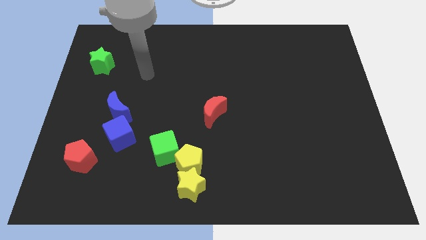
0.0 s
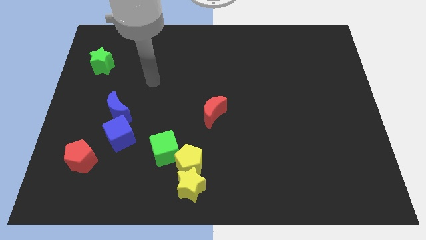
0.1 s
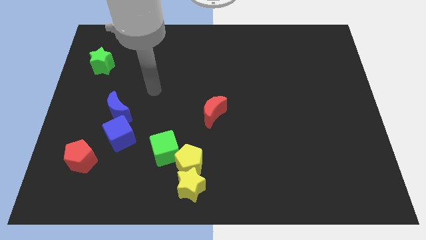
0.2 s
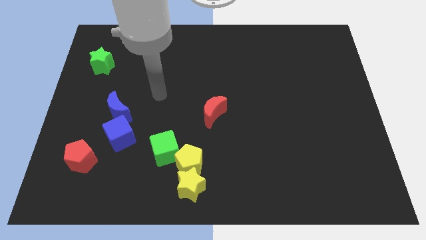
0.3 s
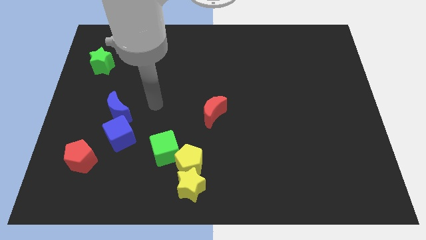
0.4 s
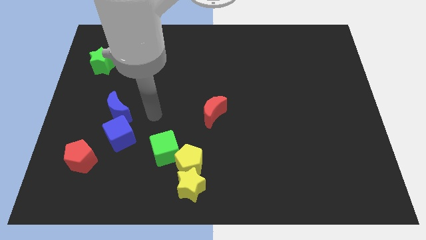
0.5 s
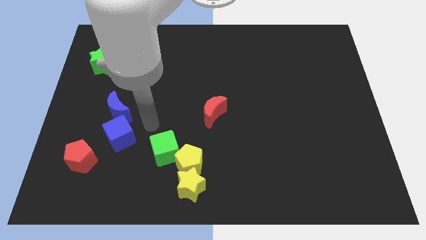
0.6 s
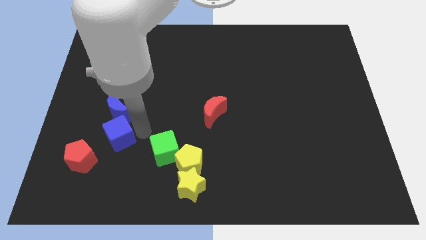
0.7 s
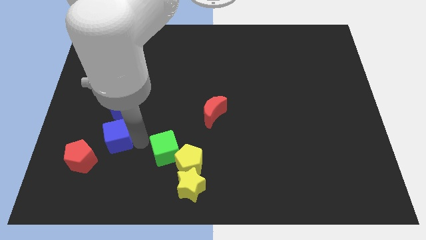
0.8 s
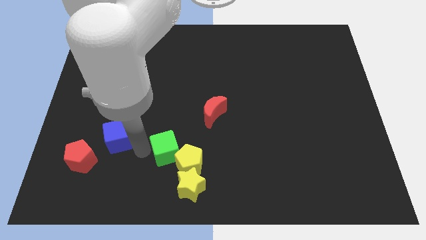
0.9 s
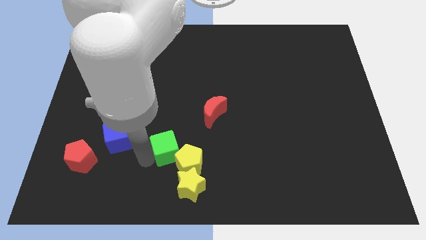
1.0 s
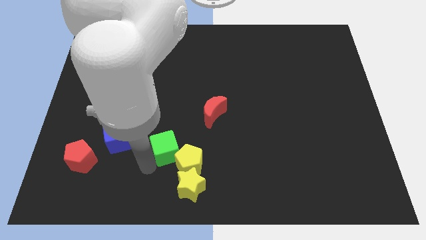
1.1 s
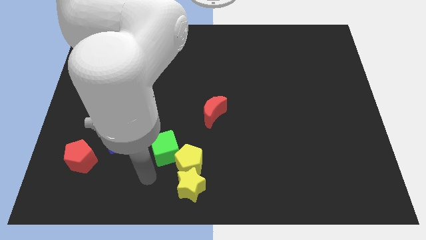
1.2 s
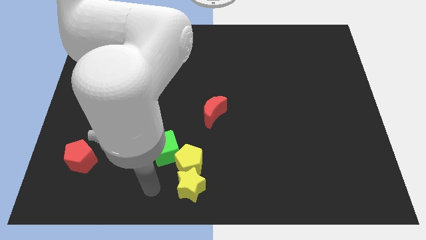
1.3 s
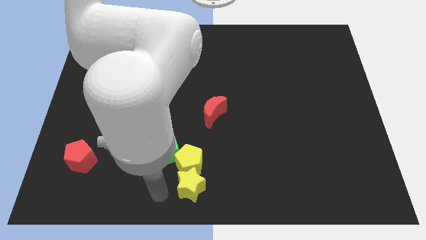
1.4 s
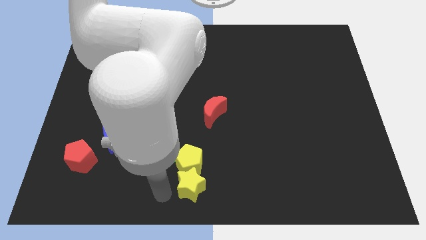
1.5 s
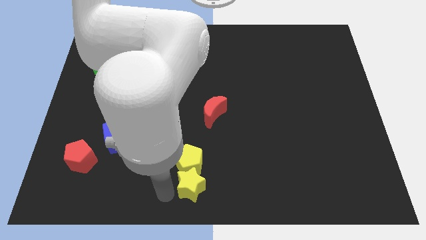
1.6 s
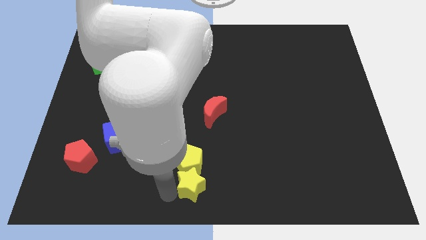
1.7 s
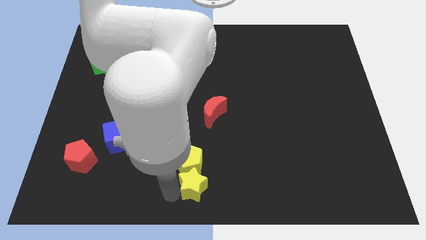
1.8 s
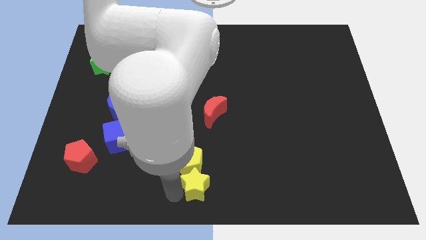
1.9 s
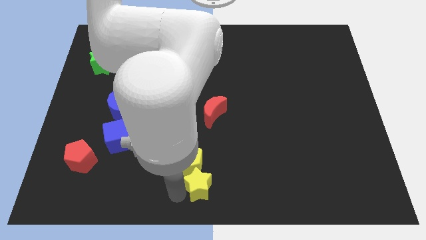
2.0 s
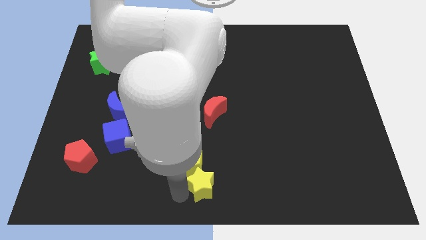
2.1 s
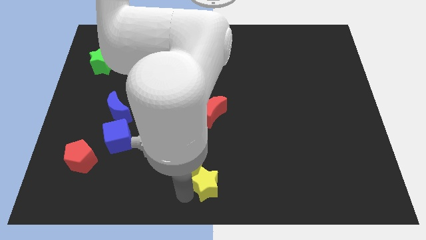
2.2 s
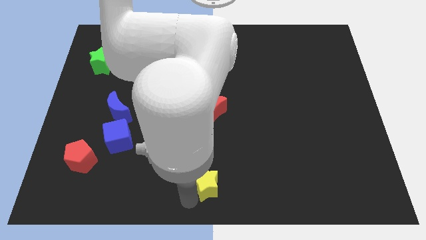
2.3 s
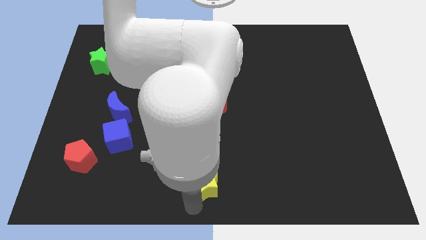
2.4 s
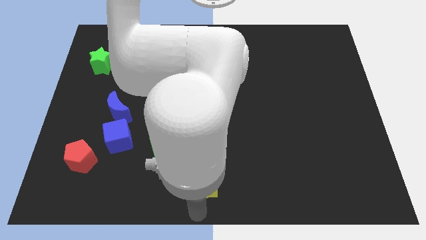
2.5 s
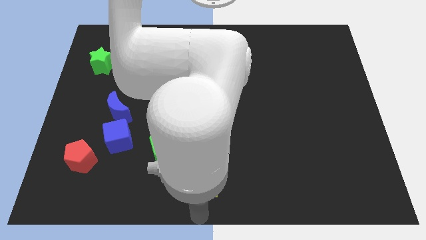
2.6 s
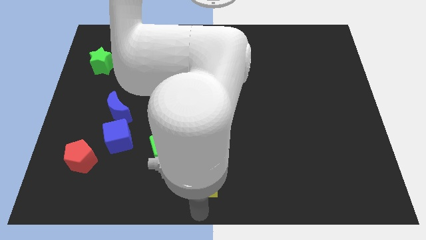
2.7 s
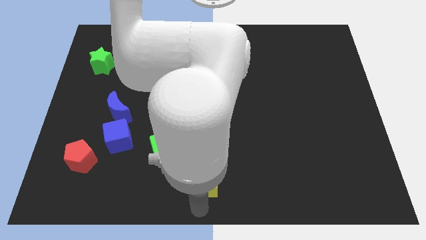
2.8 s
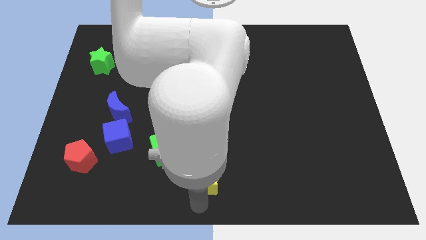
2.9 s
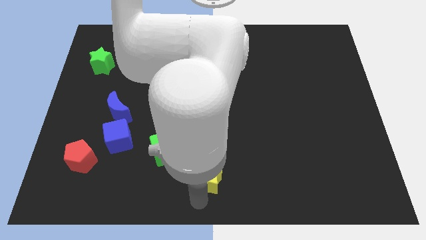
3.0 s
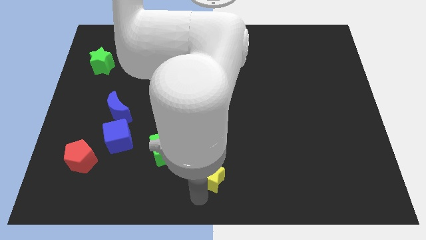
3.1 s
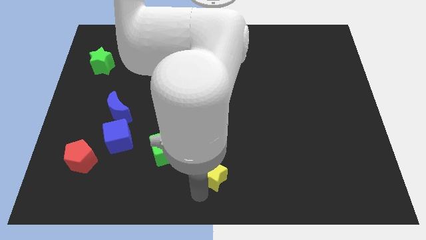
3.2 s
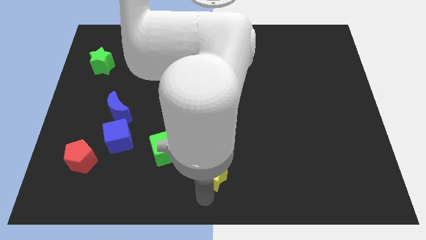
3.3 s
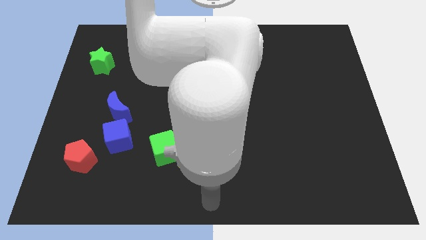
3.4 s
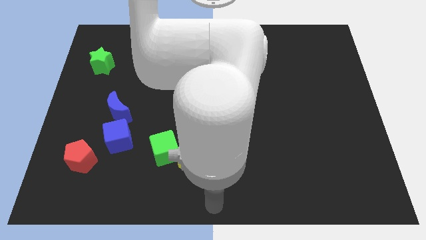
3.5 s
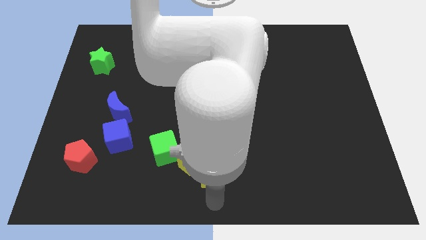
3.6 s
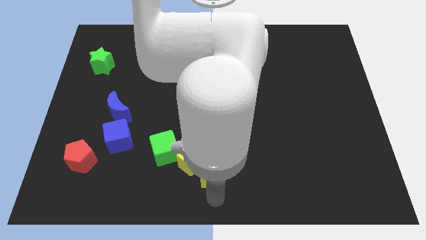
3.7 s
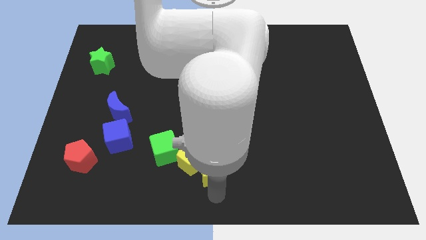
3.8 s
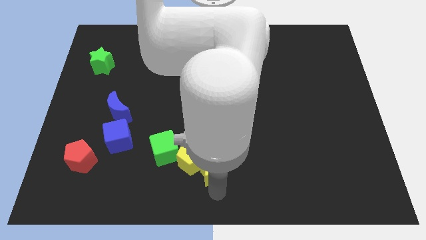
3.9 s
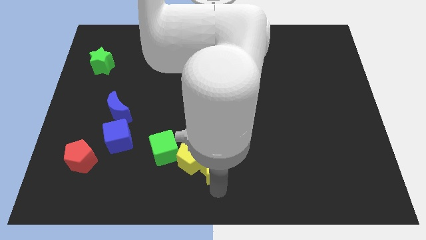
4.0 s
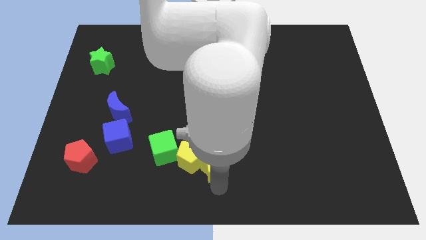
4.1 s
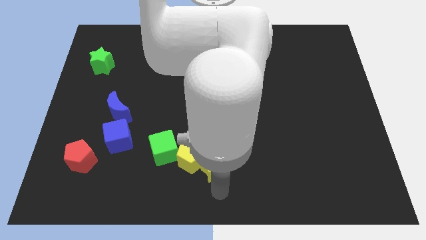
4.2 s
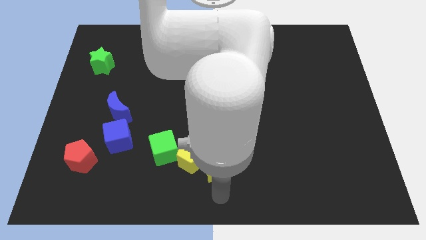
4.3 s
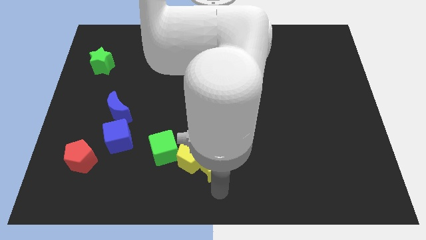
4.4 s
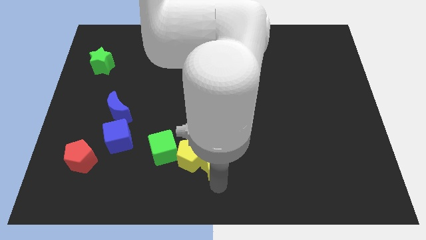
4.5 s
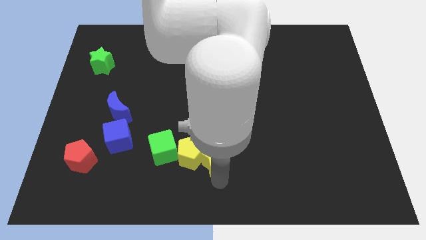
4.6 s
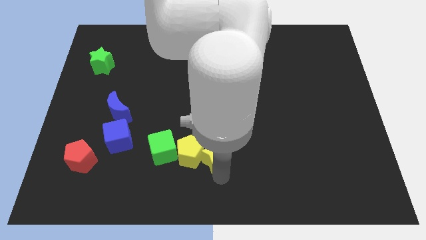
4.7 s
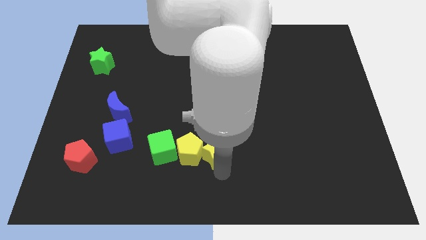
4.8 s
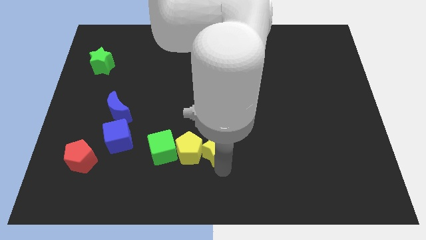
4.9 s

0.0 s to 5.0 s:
slide the yellow star upwards a little

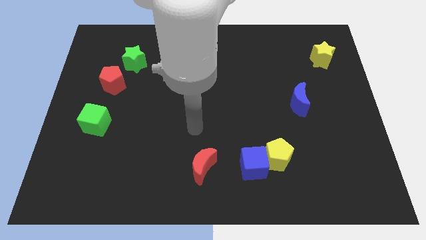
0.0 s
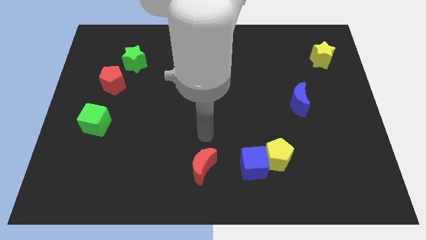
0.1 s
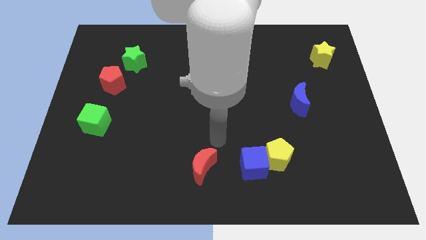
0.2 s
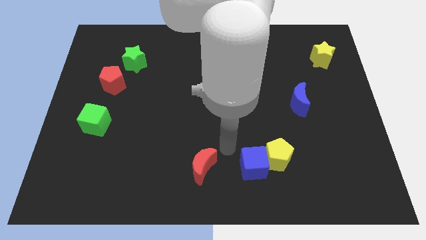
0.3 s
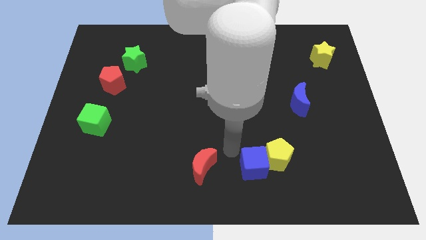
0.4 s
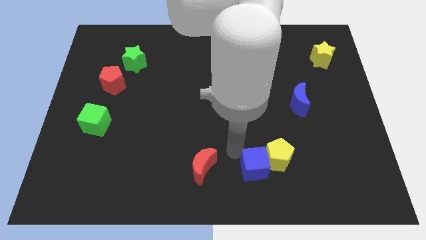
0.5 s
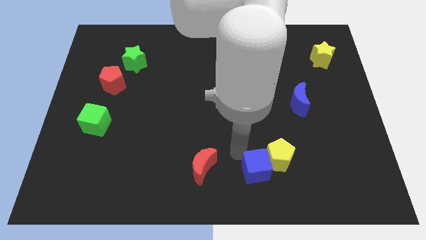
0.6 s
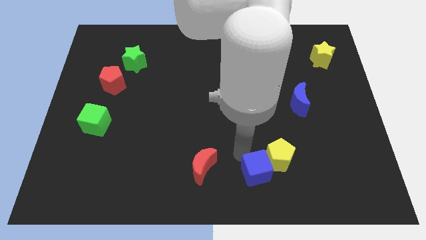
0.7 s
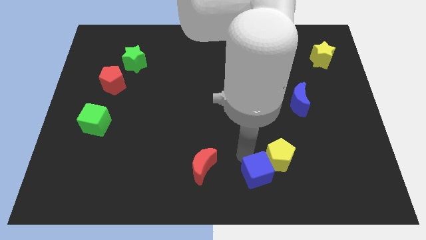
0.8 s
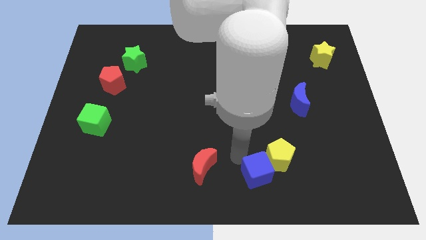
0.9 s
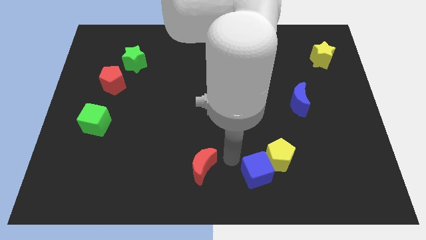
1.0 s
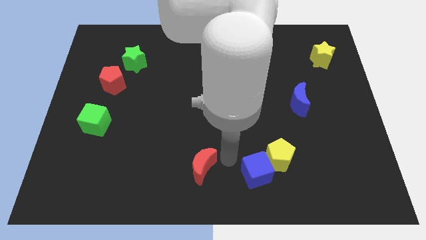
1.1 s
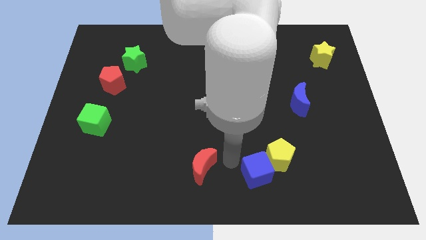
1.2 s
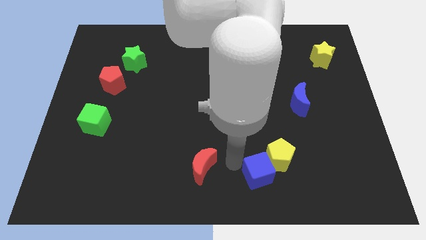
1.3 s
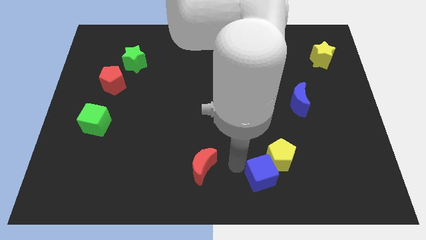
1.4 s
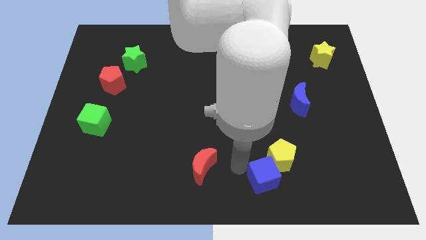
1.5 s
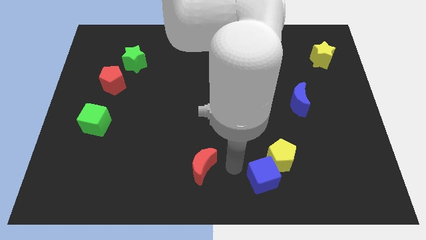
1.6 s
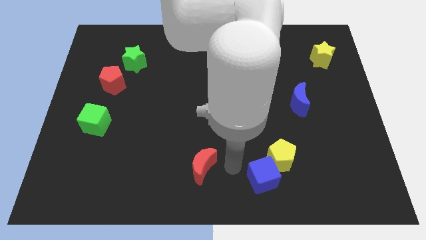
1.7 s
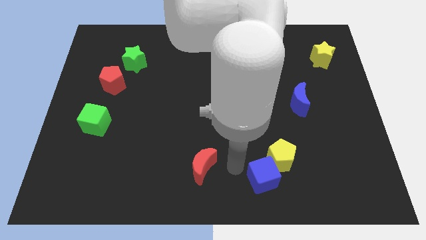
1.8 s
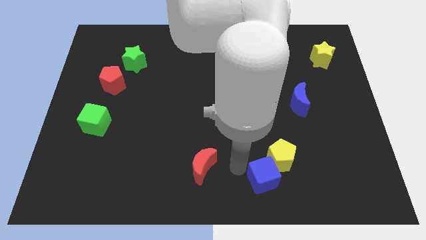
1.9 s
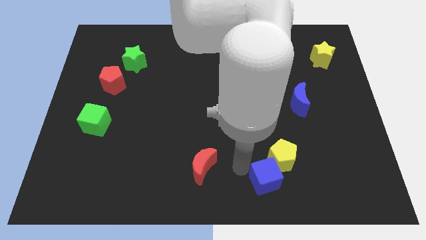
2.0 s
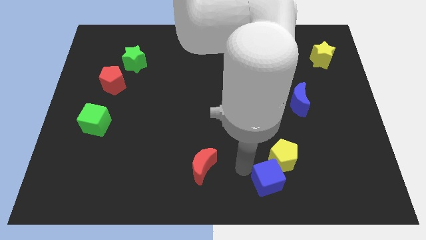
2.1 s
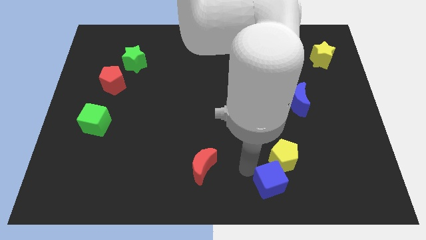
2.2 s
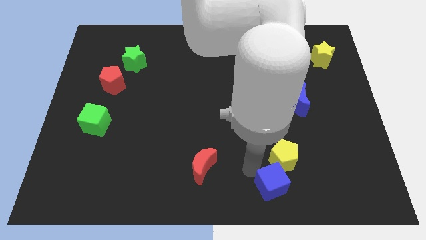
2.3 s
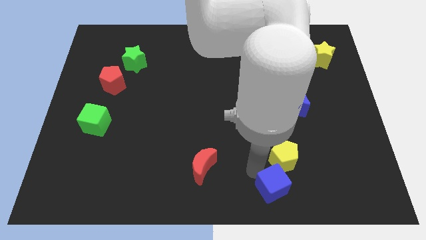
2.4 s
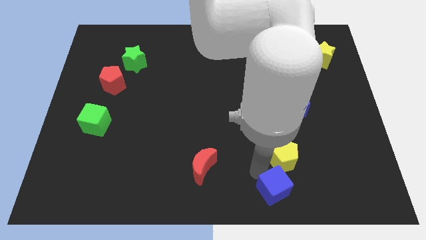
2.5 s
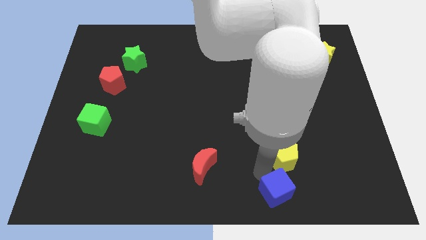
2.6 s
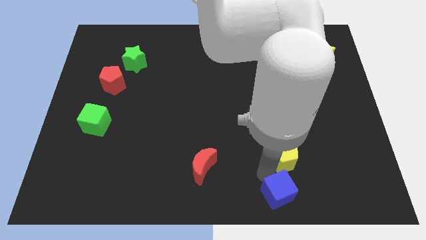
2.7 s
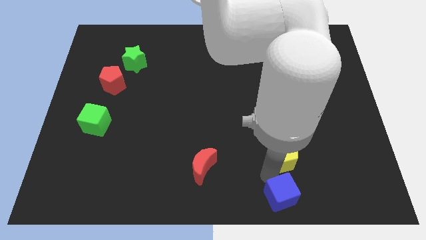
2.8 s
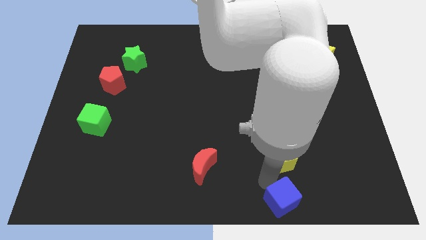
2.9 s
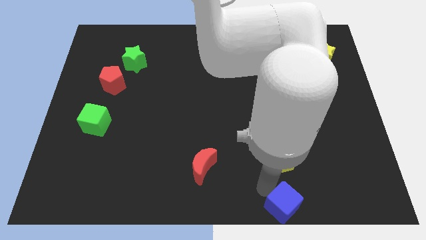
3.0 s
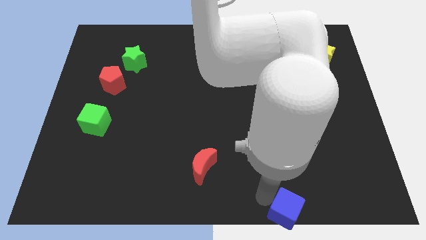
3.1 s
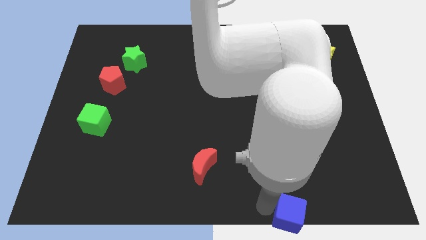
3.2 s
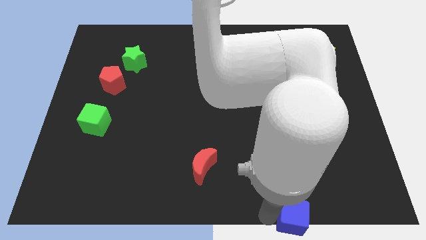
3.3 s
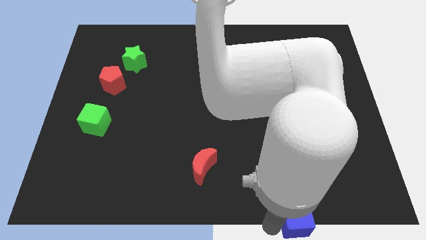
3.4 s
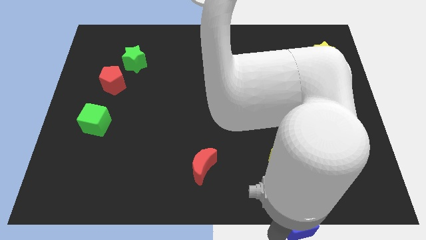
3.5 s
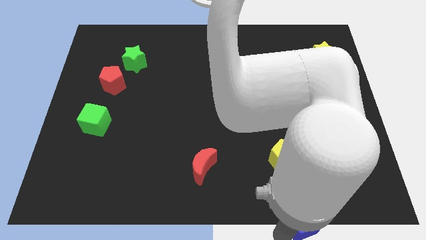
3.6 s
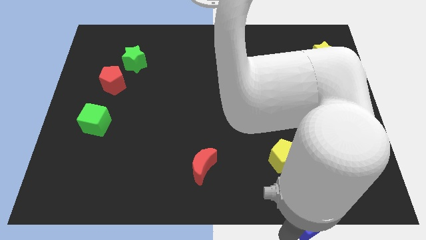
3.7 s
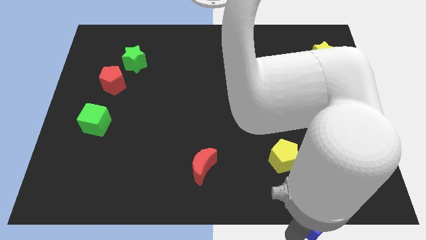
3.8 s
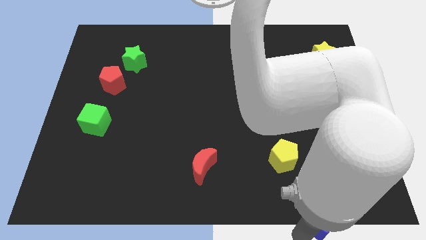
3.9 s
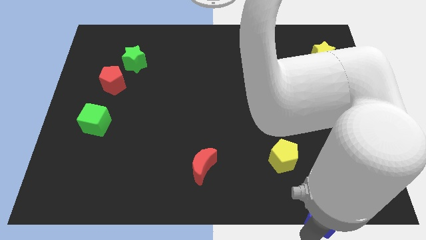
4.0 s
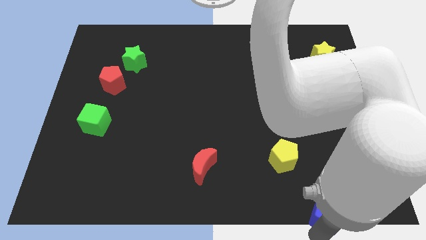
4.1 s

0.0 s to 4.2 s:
move the blue cube a little to the right
